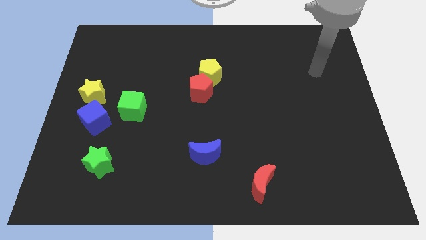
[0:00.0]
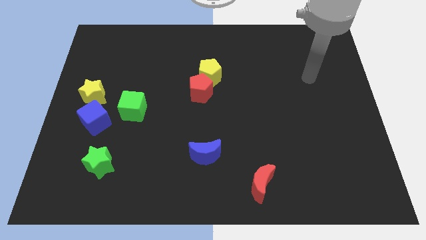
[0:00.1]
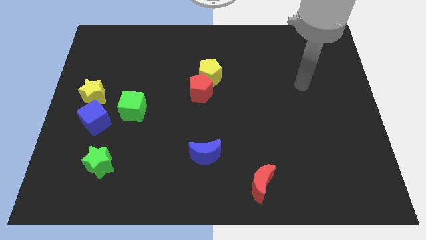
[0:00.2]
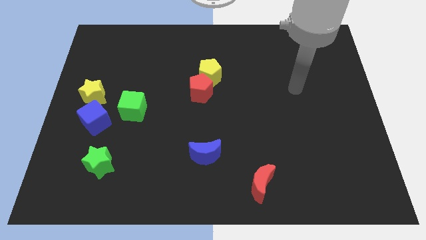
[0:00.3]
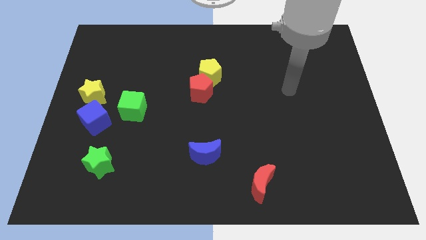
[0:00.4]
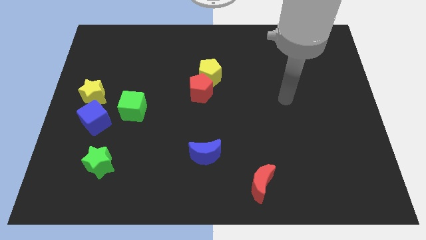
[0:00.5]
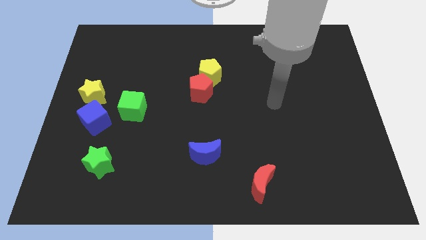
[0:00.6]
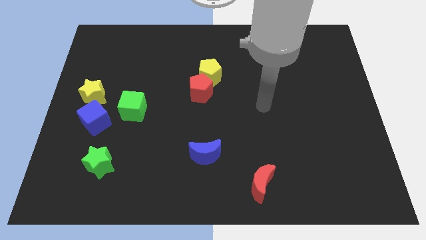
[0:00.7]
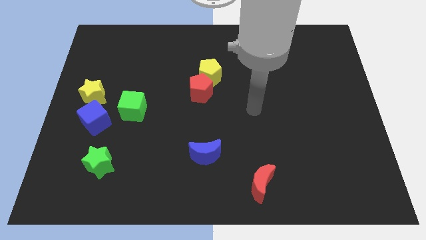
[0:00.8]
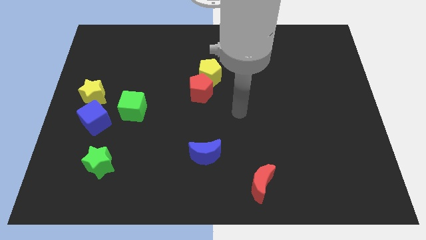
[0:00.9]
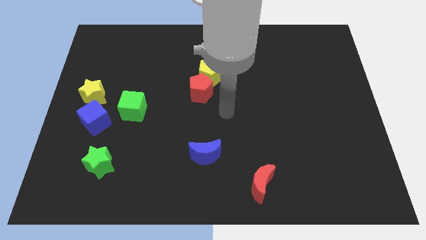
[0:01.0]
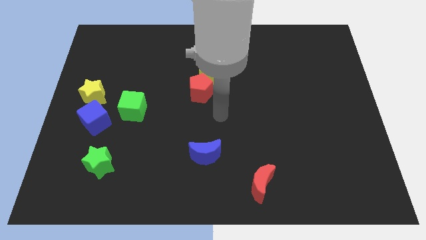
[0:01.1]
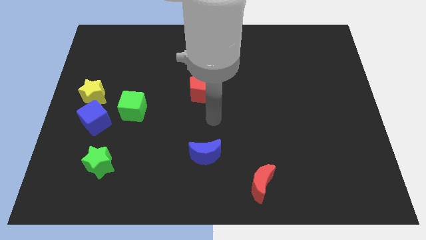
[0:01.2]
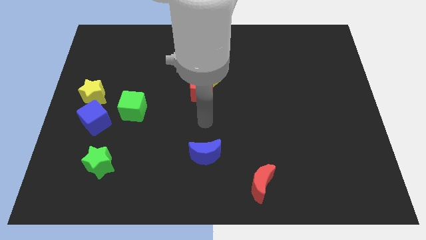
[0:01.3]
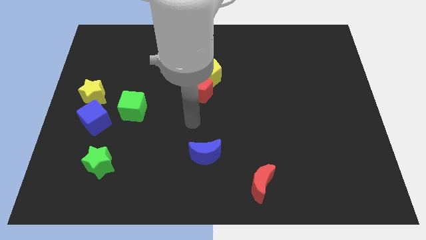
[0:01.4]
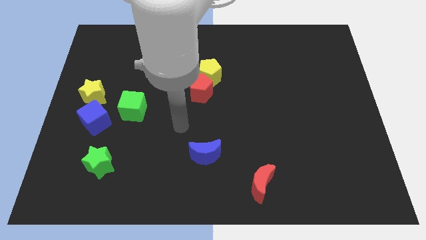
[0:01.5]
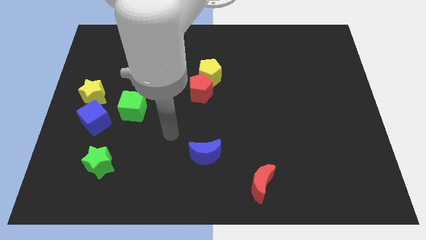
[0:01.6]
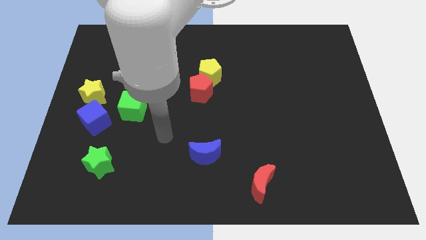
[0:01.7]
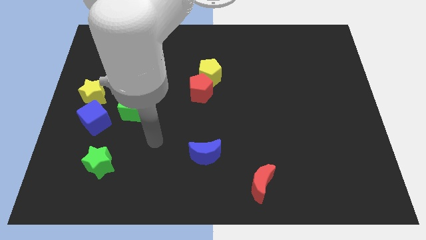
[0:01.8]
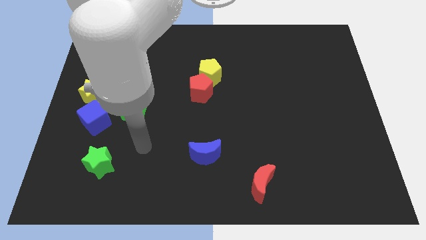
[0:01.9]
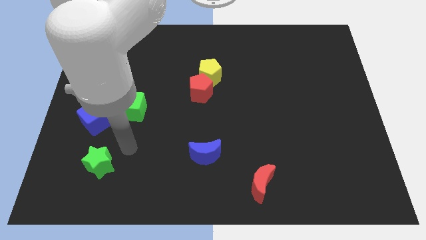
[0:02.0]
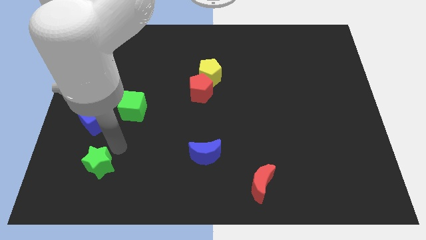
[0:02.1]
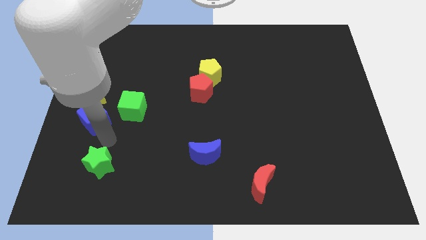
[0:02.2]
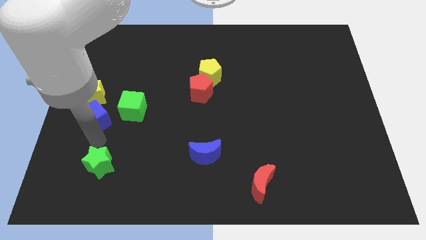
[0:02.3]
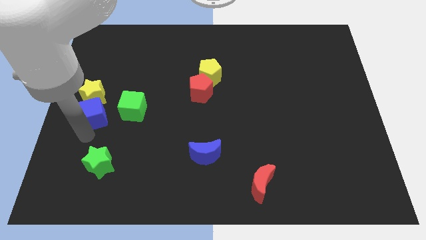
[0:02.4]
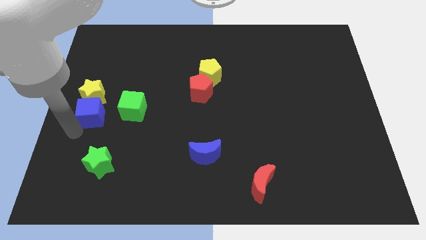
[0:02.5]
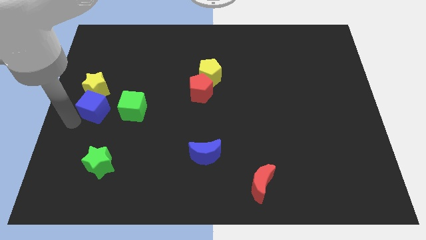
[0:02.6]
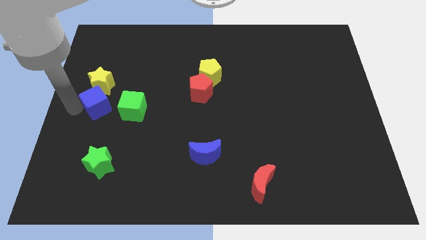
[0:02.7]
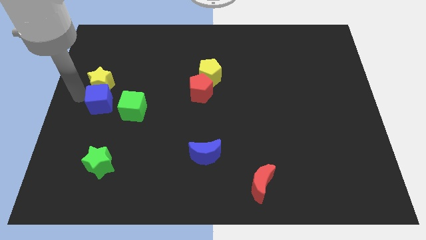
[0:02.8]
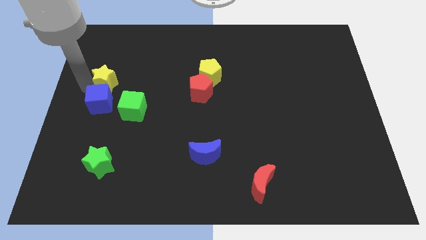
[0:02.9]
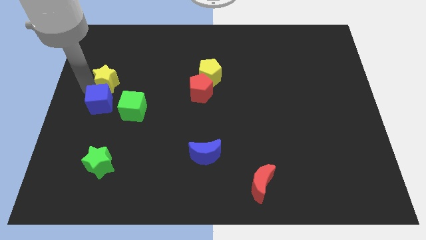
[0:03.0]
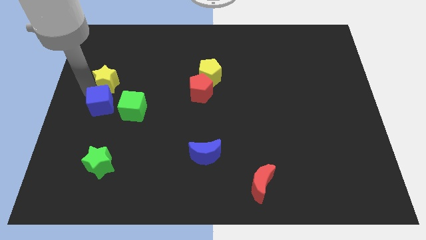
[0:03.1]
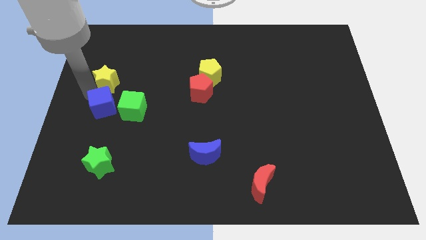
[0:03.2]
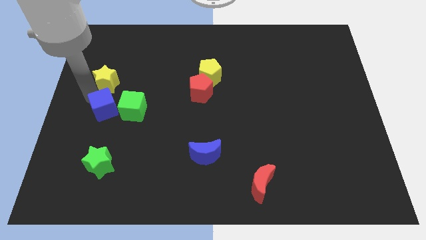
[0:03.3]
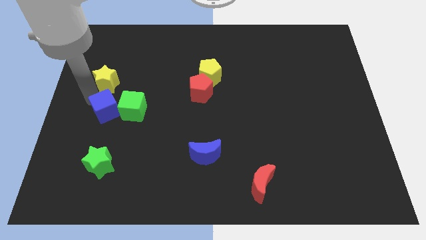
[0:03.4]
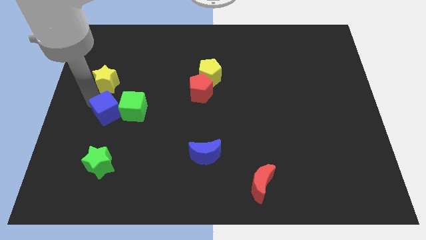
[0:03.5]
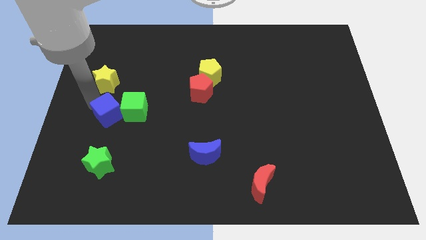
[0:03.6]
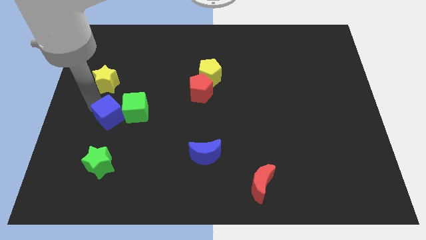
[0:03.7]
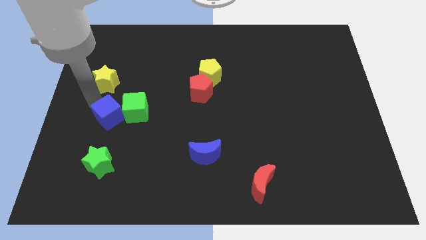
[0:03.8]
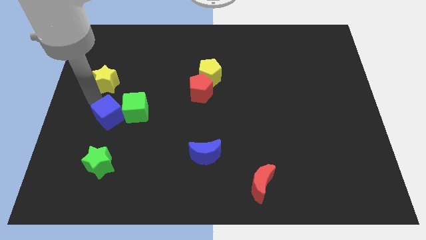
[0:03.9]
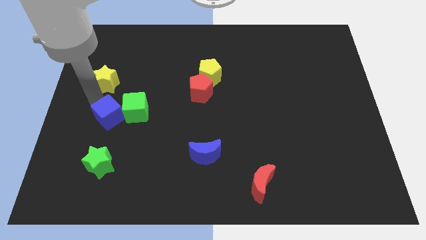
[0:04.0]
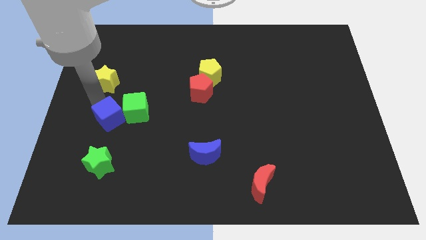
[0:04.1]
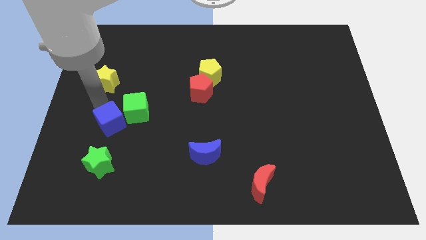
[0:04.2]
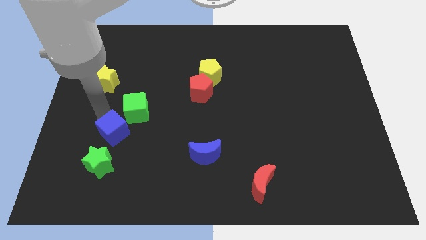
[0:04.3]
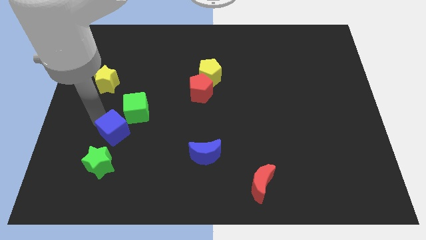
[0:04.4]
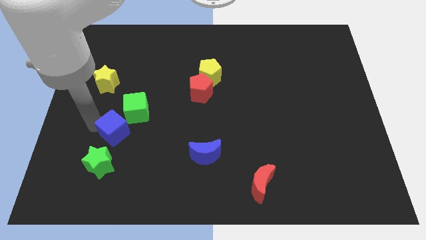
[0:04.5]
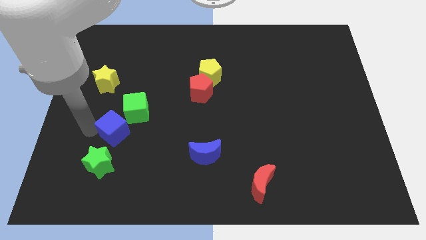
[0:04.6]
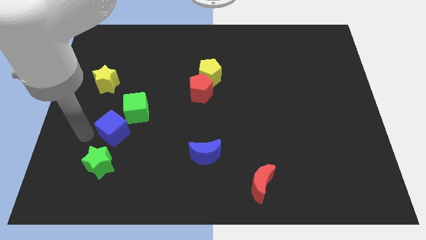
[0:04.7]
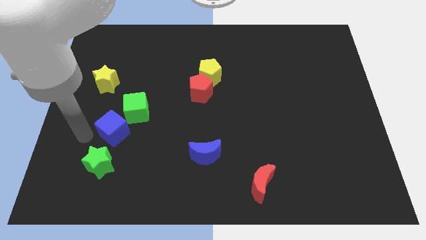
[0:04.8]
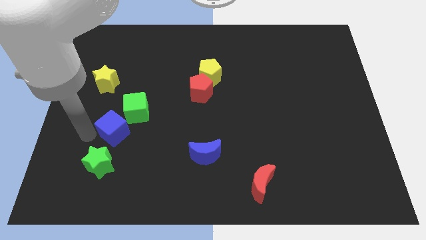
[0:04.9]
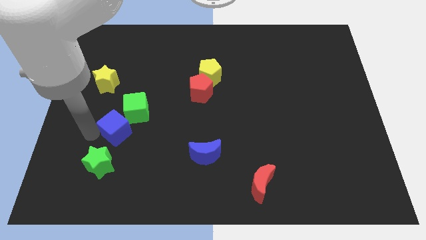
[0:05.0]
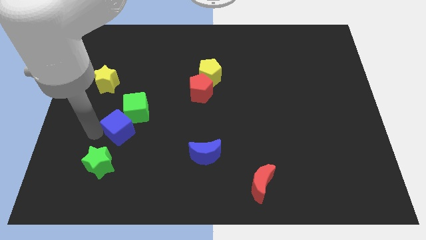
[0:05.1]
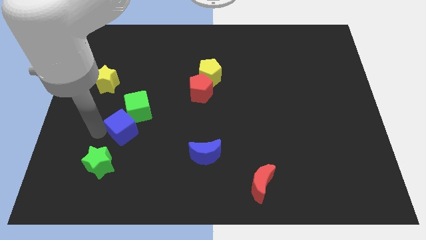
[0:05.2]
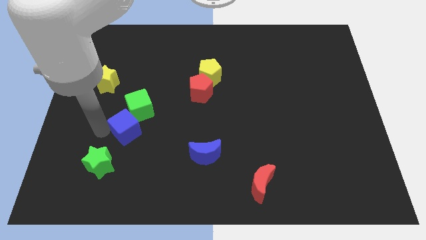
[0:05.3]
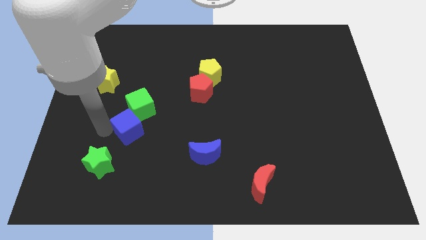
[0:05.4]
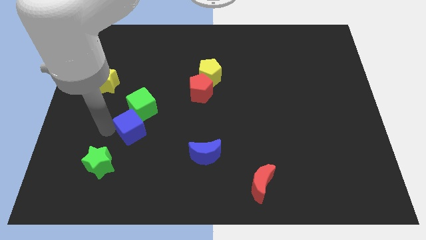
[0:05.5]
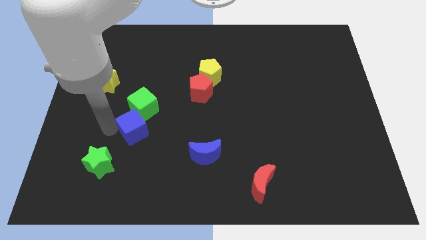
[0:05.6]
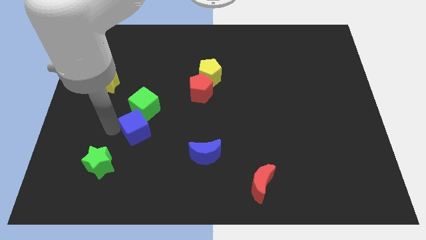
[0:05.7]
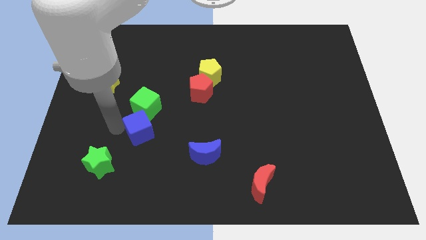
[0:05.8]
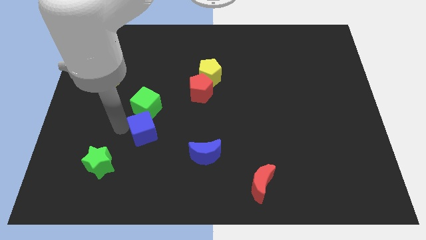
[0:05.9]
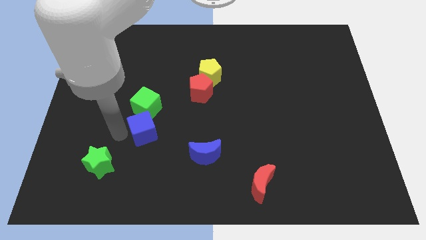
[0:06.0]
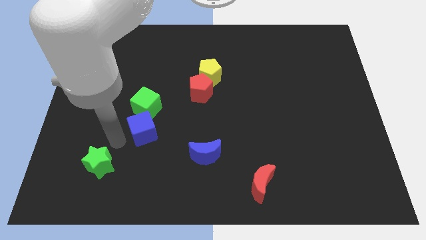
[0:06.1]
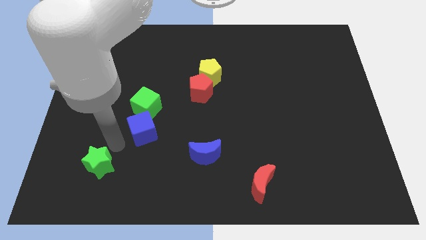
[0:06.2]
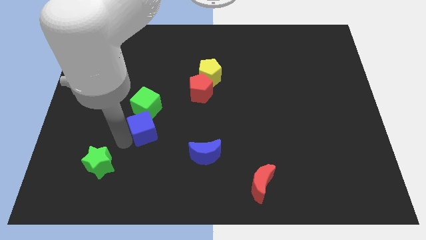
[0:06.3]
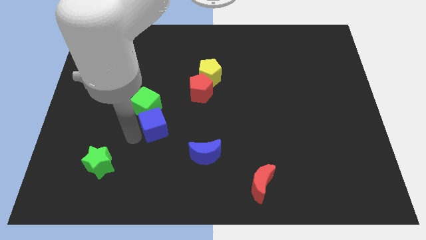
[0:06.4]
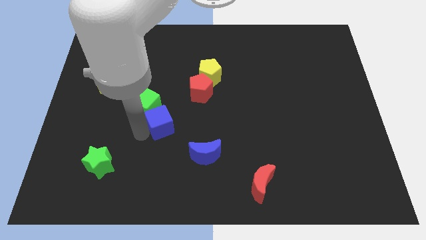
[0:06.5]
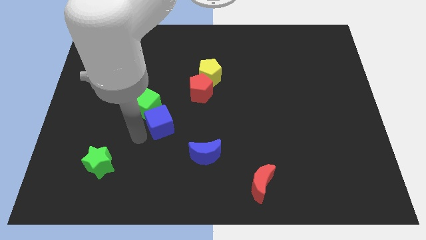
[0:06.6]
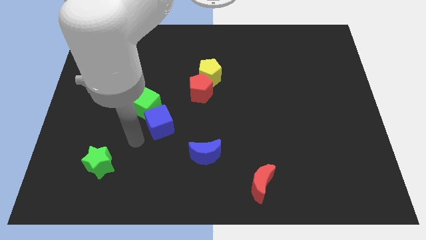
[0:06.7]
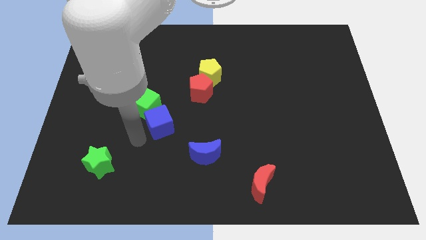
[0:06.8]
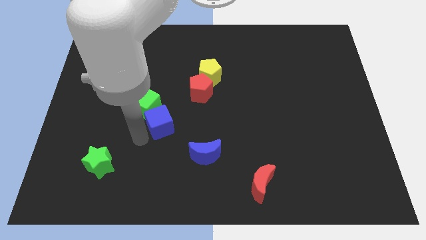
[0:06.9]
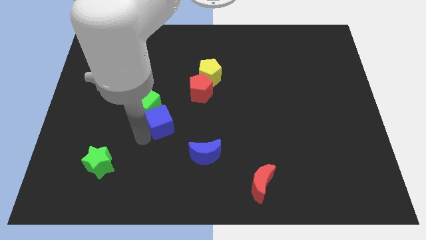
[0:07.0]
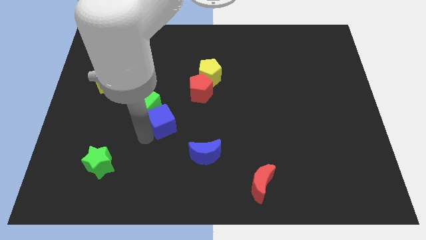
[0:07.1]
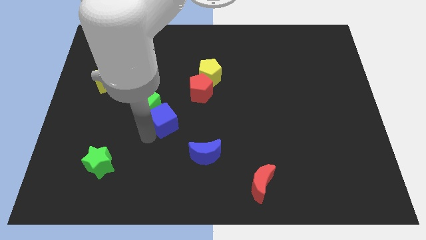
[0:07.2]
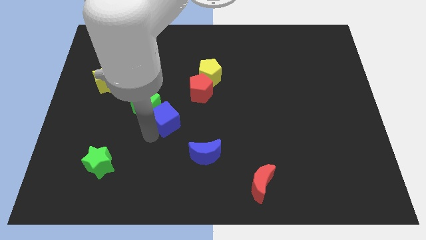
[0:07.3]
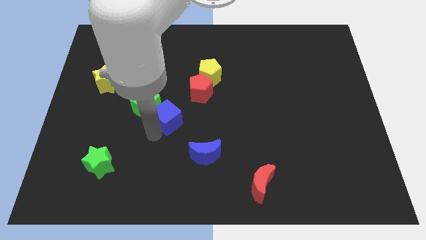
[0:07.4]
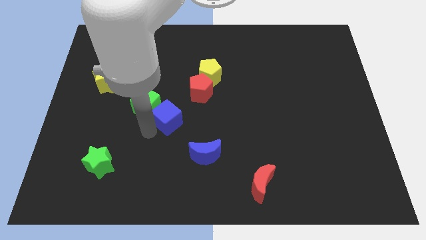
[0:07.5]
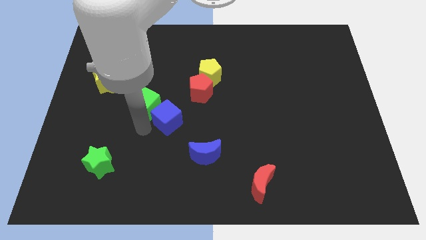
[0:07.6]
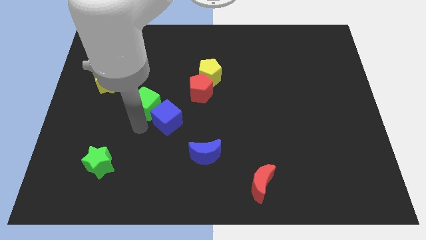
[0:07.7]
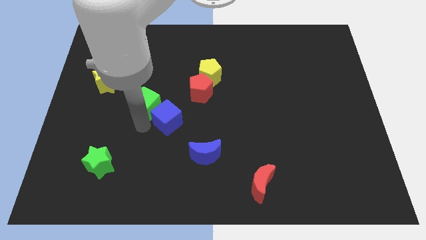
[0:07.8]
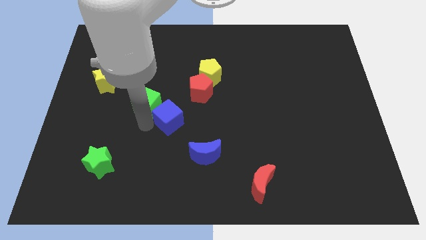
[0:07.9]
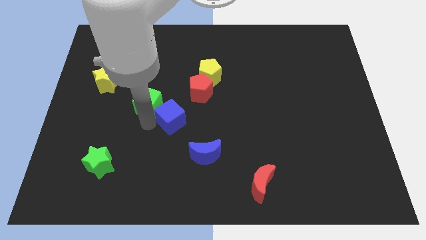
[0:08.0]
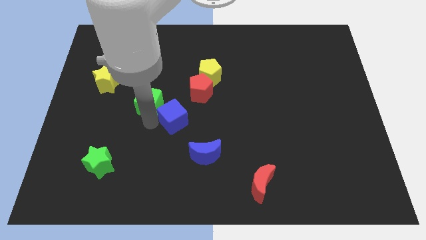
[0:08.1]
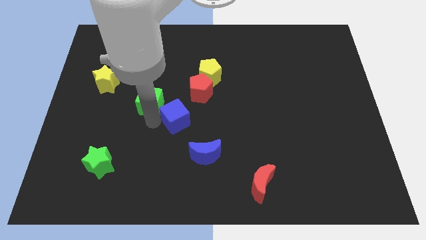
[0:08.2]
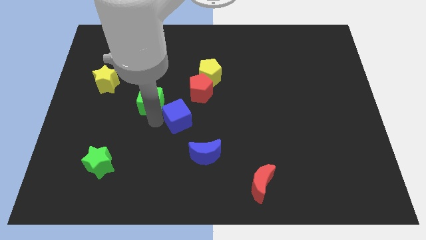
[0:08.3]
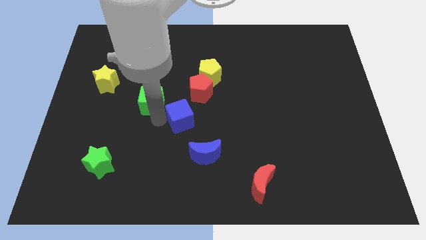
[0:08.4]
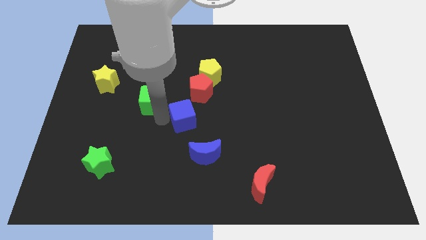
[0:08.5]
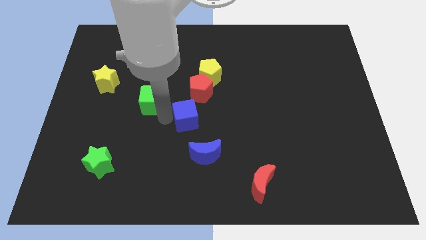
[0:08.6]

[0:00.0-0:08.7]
slide the blue cube above the blue moon
